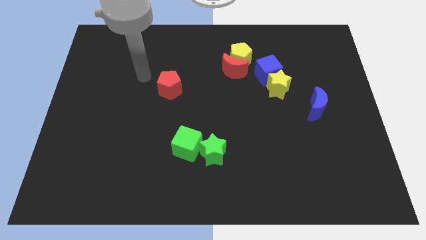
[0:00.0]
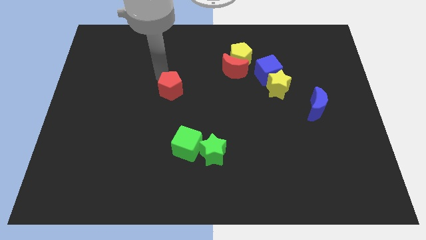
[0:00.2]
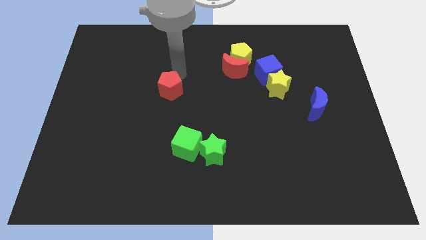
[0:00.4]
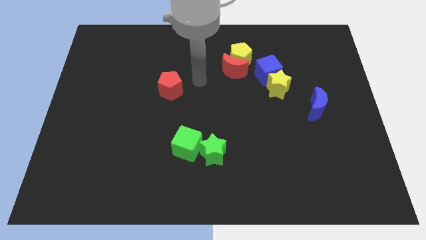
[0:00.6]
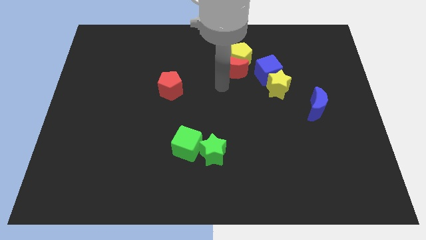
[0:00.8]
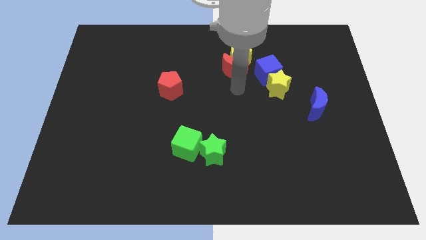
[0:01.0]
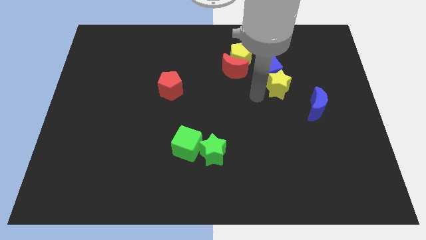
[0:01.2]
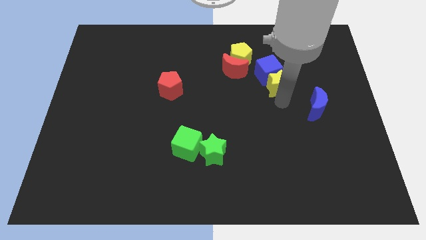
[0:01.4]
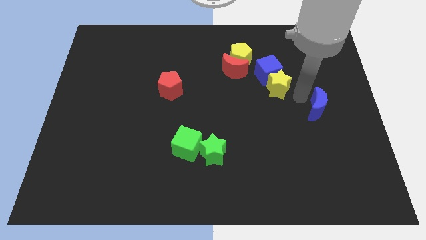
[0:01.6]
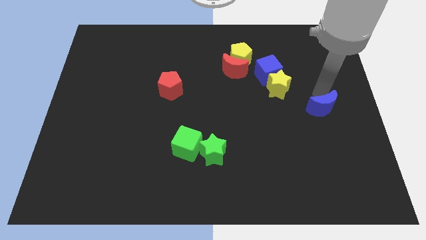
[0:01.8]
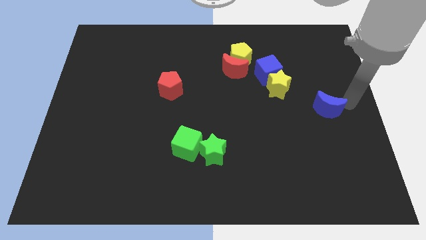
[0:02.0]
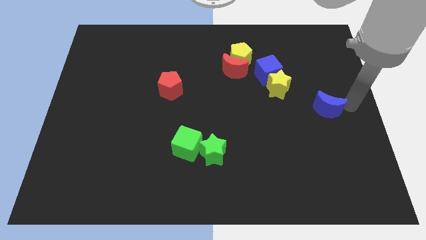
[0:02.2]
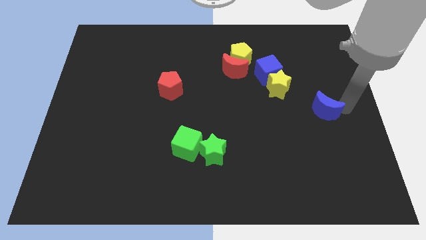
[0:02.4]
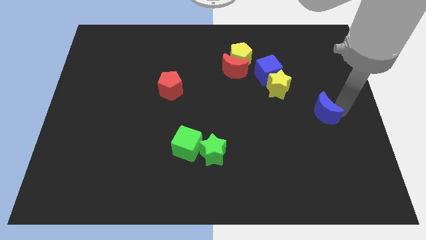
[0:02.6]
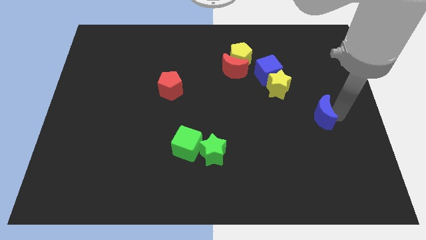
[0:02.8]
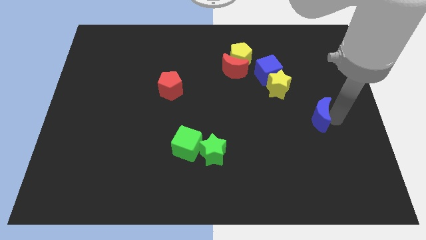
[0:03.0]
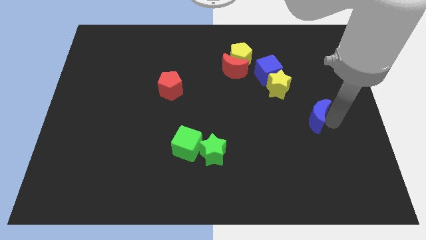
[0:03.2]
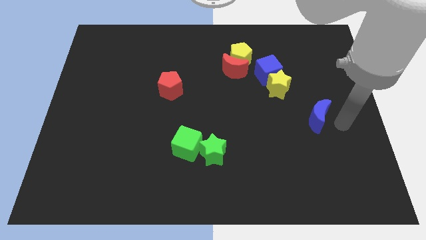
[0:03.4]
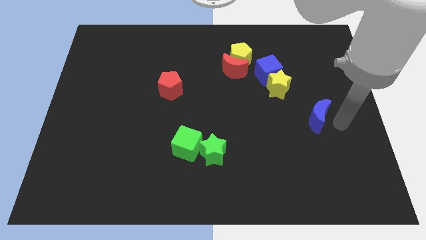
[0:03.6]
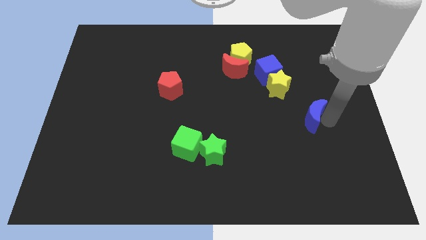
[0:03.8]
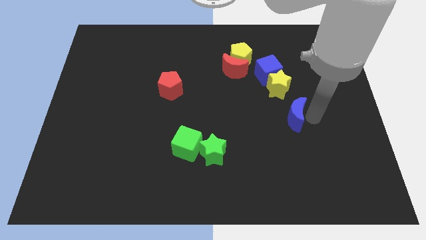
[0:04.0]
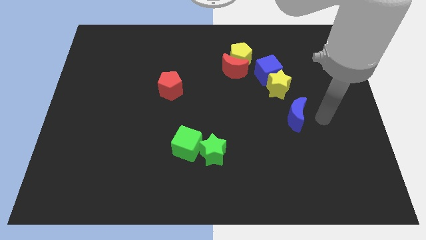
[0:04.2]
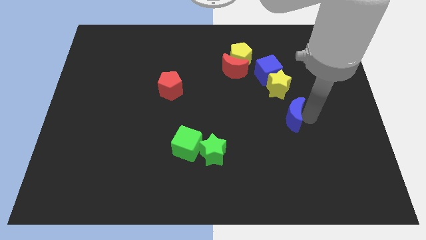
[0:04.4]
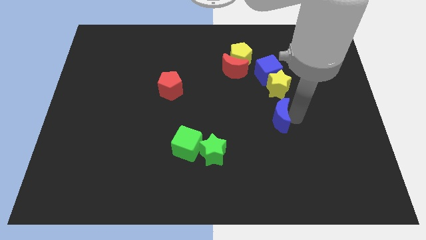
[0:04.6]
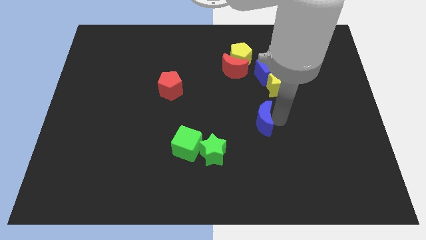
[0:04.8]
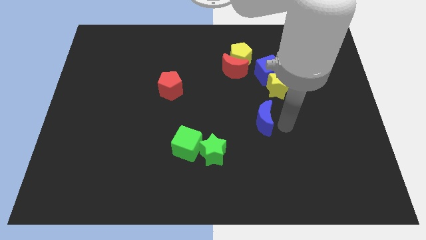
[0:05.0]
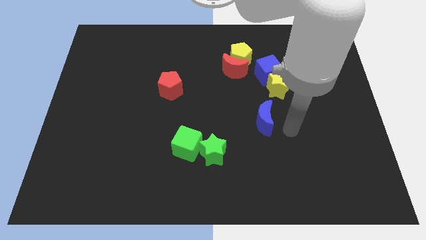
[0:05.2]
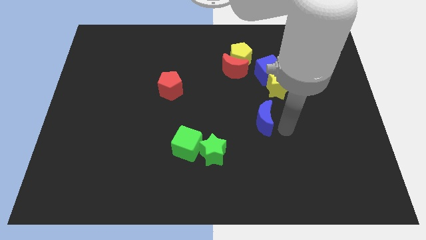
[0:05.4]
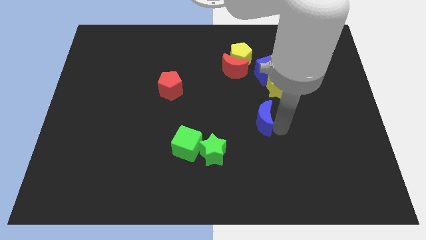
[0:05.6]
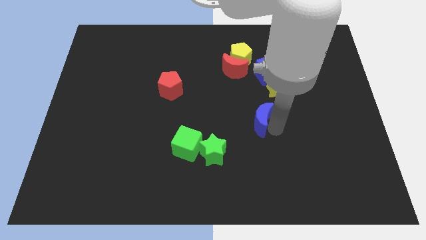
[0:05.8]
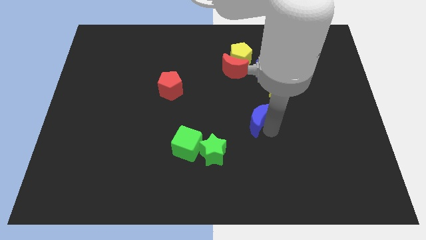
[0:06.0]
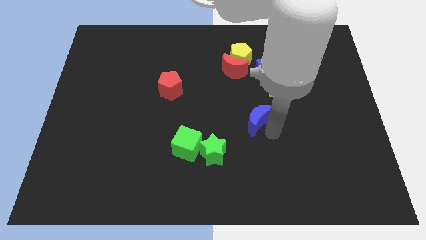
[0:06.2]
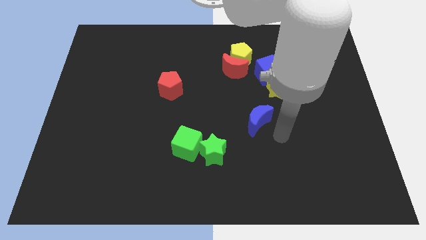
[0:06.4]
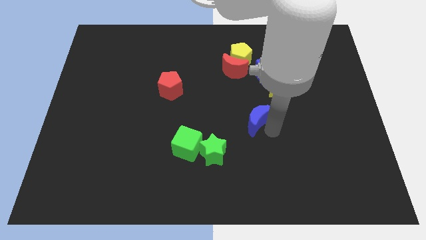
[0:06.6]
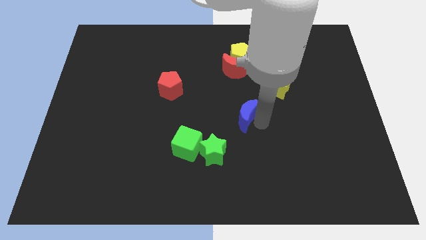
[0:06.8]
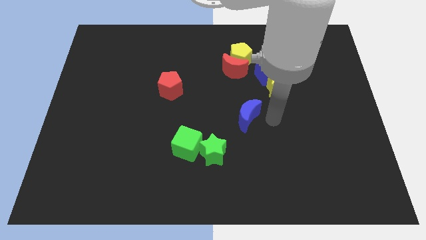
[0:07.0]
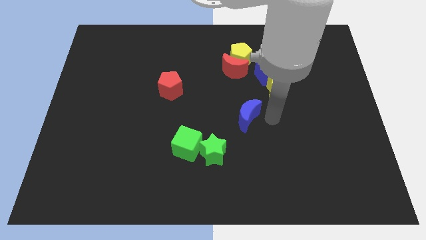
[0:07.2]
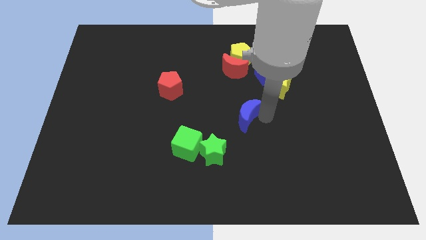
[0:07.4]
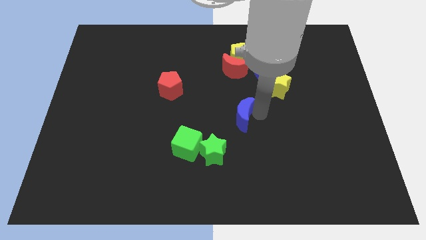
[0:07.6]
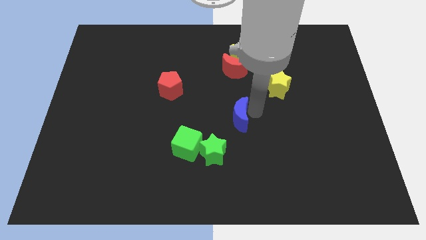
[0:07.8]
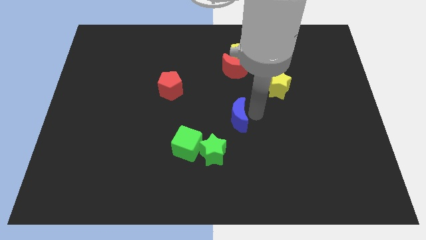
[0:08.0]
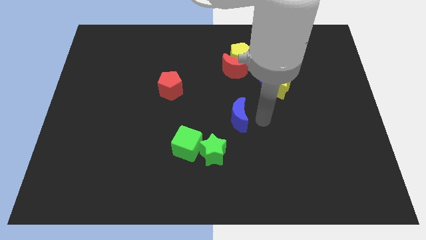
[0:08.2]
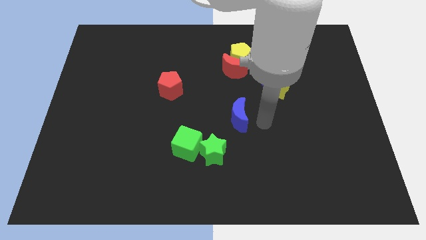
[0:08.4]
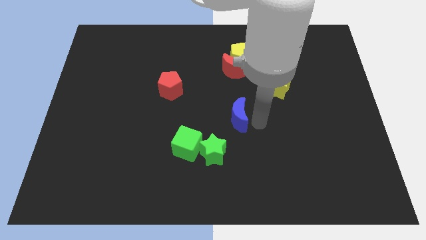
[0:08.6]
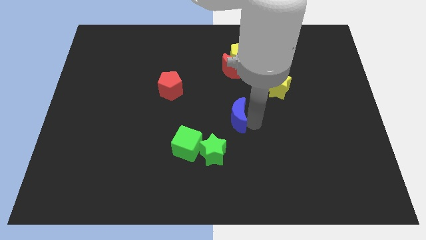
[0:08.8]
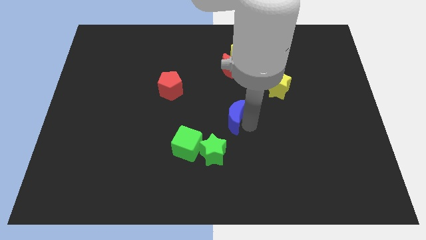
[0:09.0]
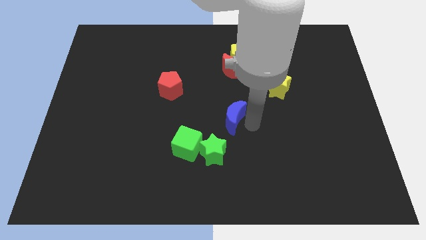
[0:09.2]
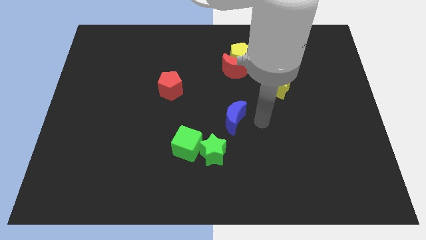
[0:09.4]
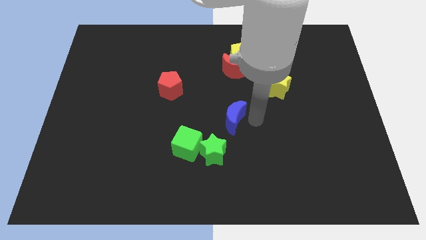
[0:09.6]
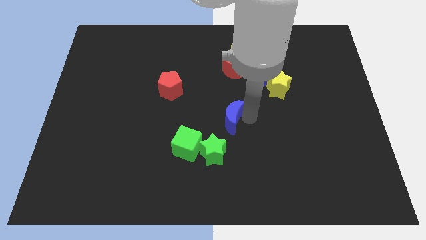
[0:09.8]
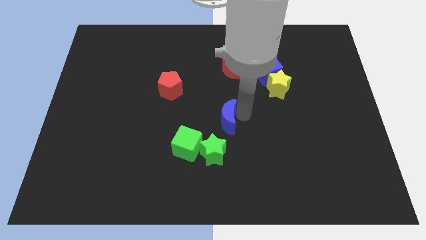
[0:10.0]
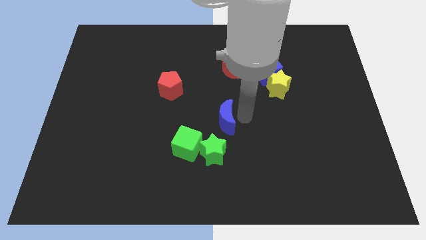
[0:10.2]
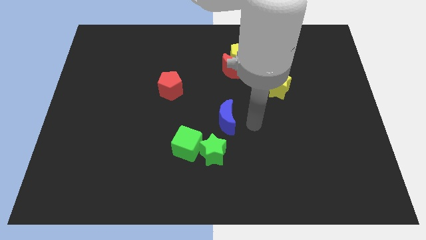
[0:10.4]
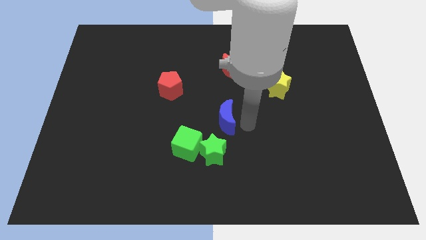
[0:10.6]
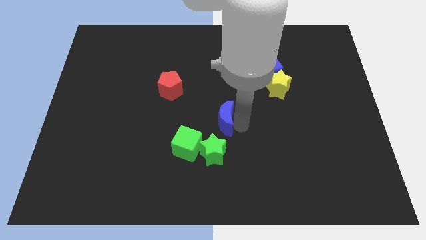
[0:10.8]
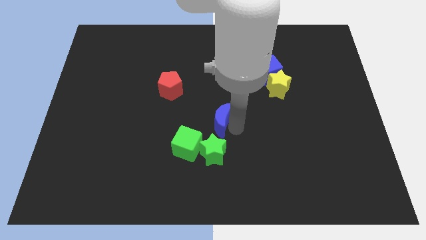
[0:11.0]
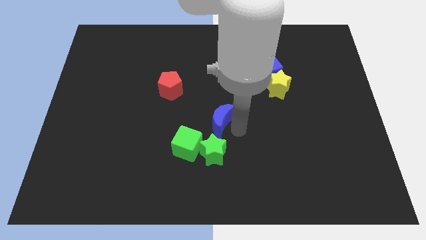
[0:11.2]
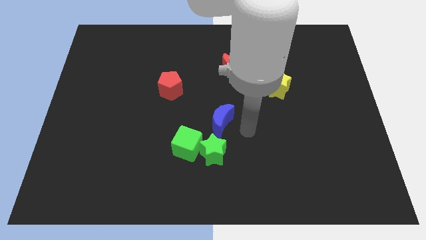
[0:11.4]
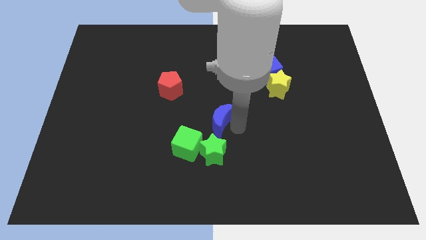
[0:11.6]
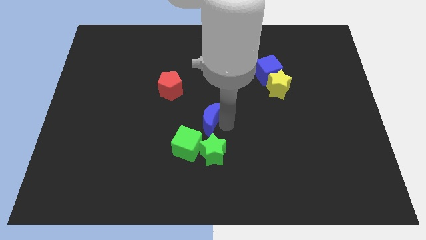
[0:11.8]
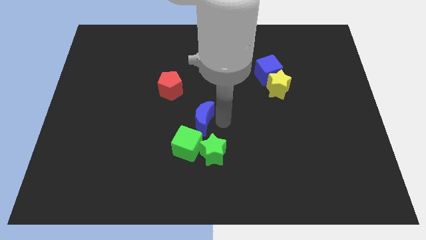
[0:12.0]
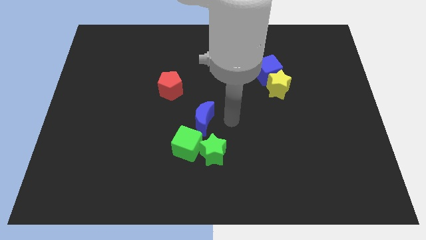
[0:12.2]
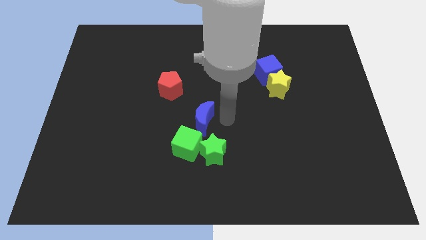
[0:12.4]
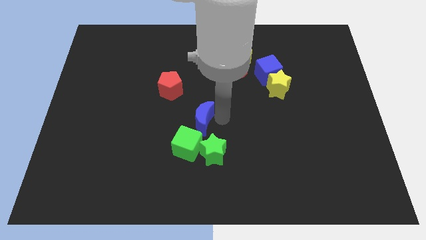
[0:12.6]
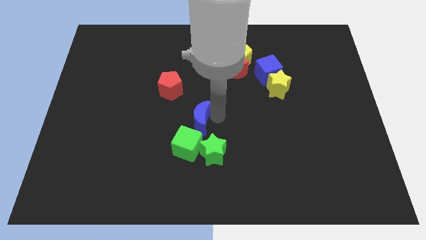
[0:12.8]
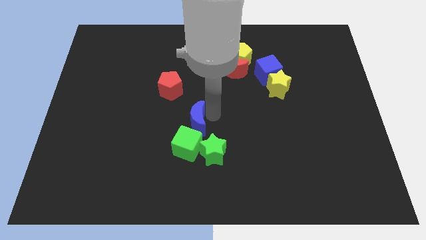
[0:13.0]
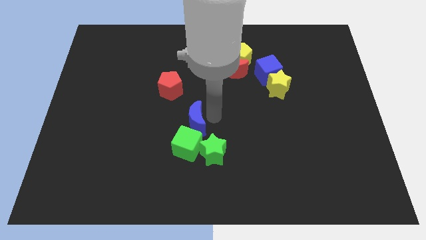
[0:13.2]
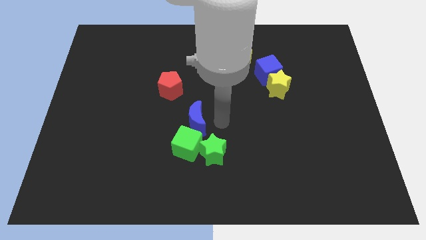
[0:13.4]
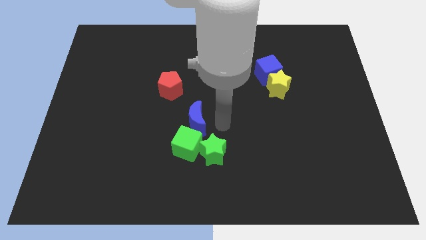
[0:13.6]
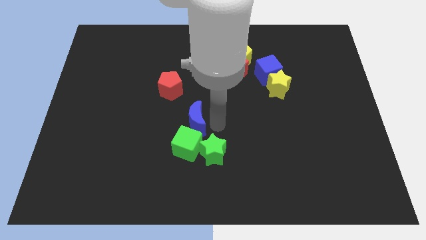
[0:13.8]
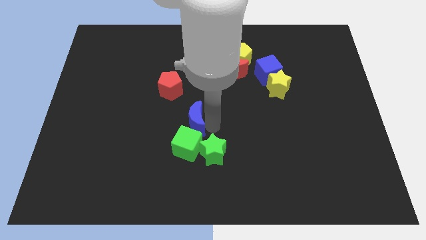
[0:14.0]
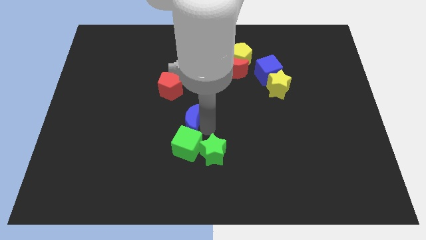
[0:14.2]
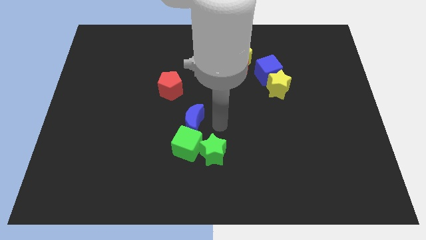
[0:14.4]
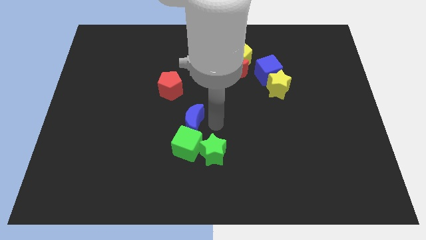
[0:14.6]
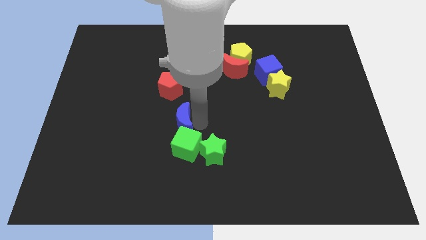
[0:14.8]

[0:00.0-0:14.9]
move the blue moon to the bottom of the red pentagon

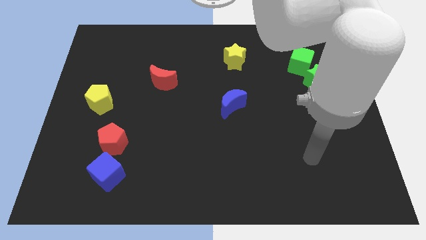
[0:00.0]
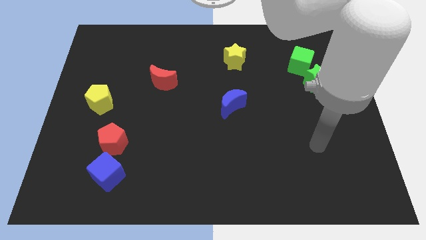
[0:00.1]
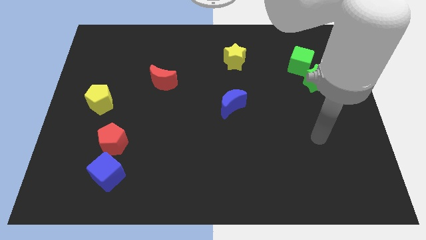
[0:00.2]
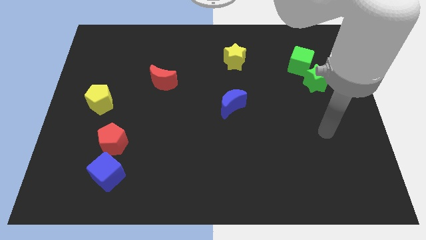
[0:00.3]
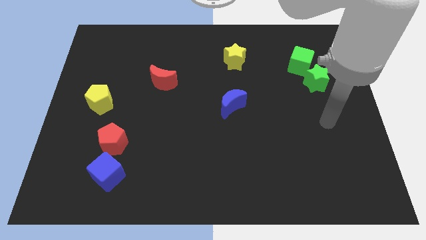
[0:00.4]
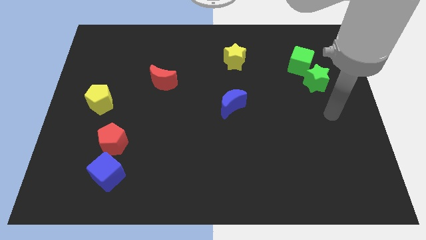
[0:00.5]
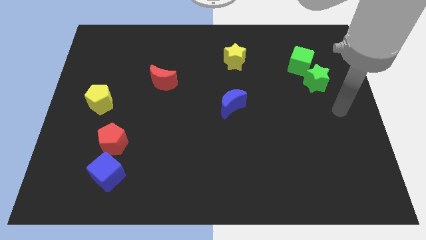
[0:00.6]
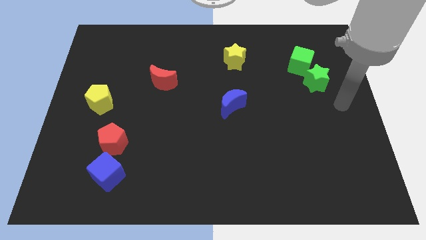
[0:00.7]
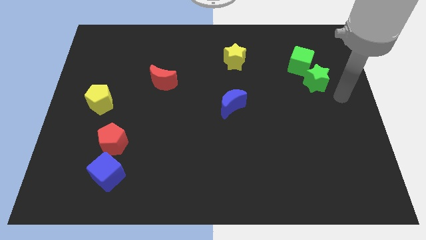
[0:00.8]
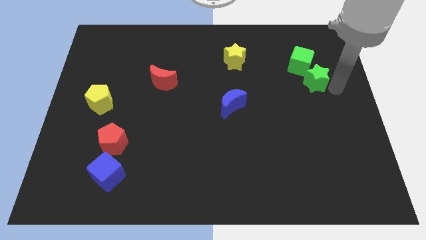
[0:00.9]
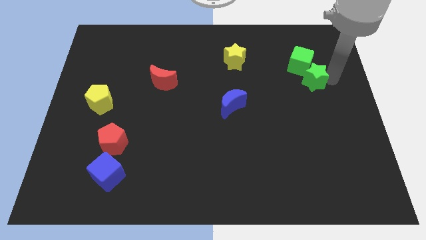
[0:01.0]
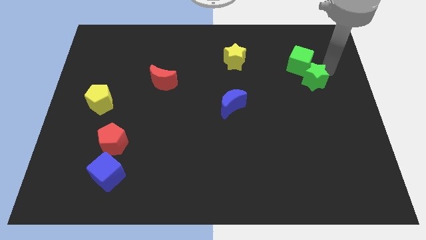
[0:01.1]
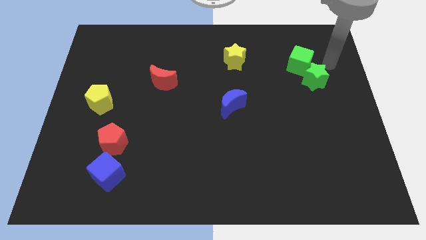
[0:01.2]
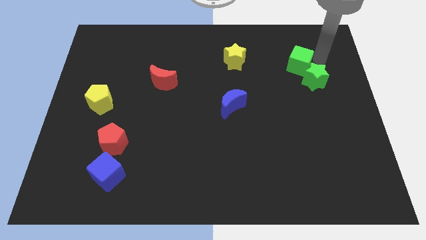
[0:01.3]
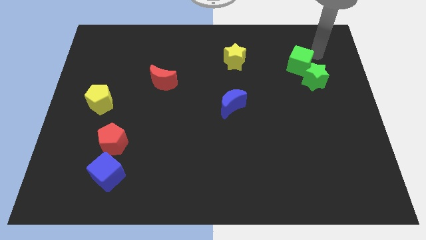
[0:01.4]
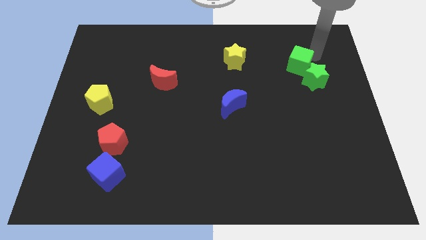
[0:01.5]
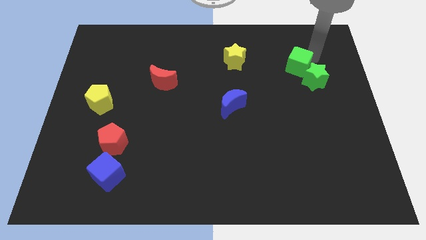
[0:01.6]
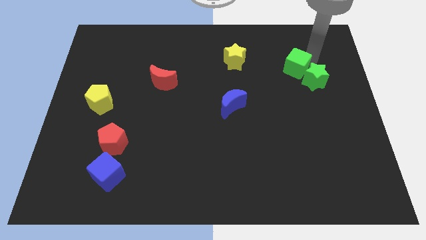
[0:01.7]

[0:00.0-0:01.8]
slide the green cube just left of the green star
